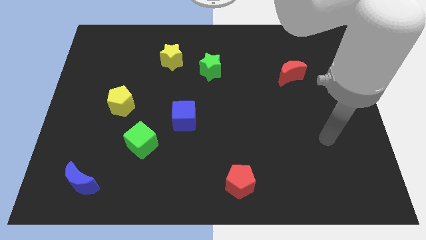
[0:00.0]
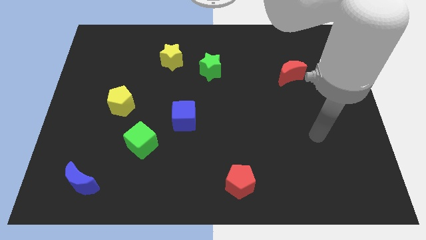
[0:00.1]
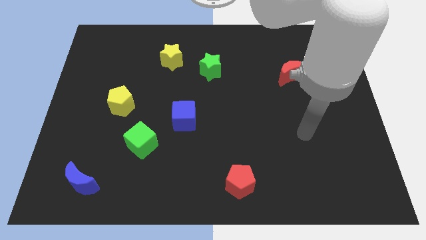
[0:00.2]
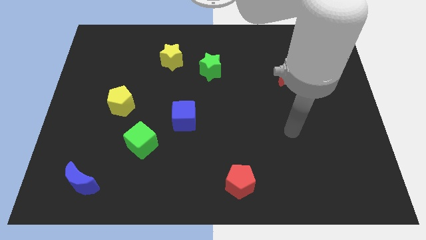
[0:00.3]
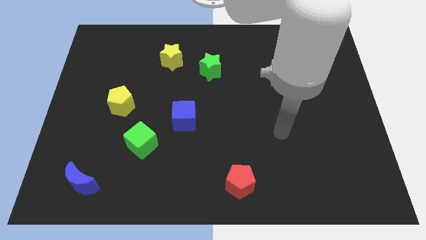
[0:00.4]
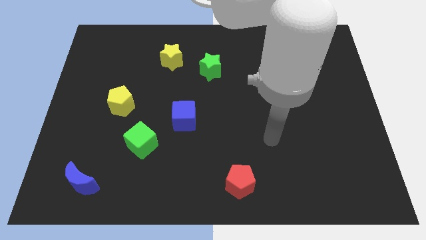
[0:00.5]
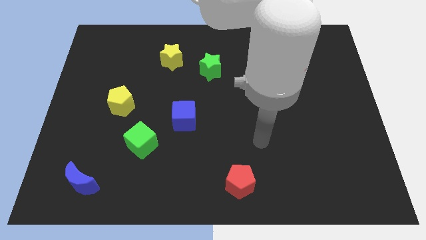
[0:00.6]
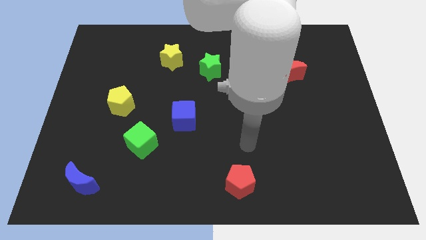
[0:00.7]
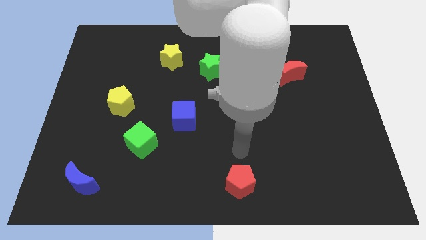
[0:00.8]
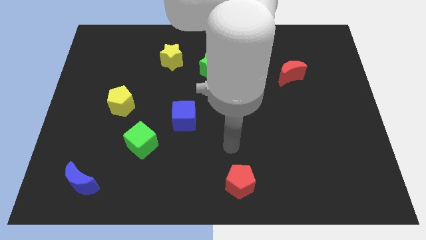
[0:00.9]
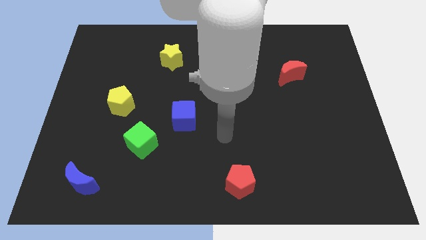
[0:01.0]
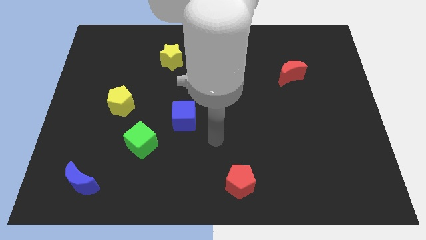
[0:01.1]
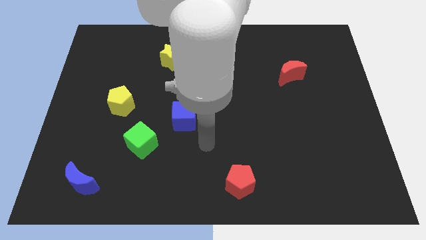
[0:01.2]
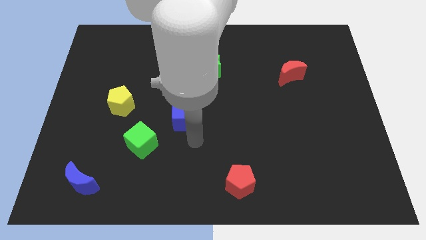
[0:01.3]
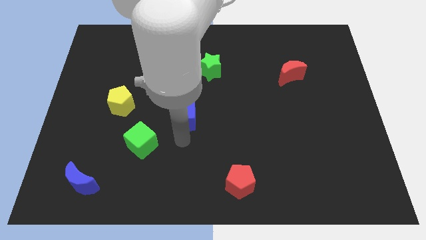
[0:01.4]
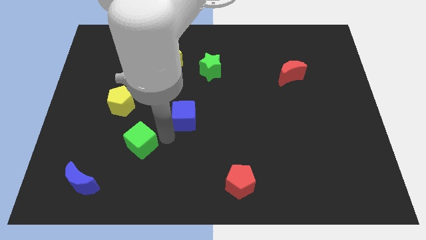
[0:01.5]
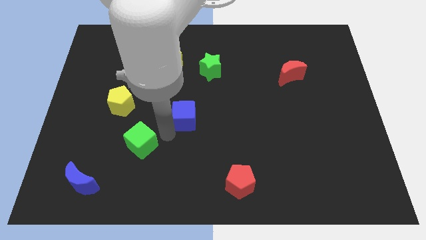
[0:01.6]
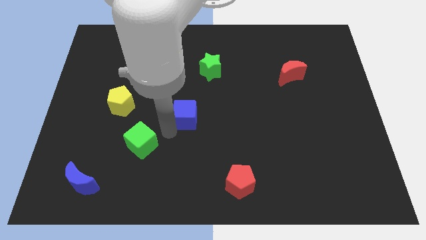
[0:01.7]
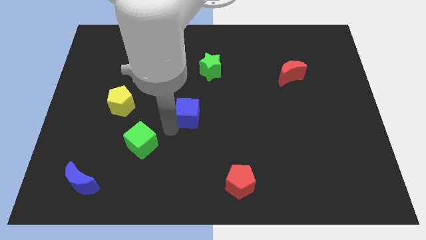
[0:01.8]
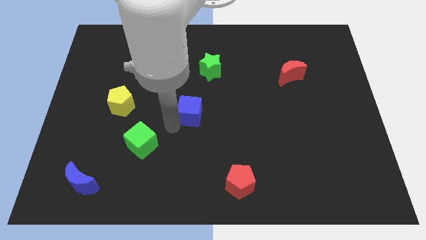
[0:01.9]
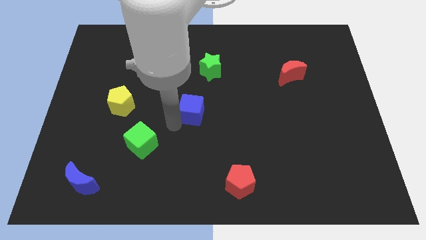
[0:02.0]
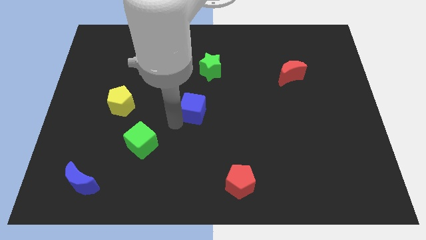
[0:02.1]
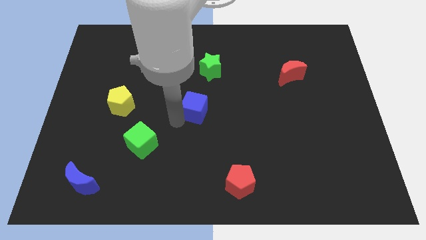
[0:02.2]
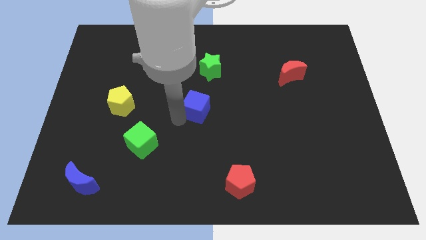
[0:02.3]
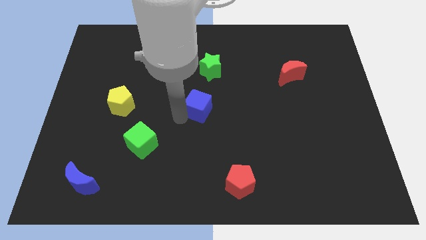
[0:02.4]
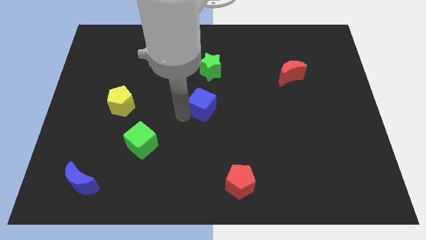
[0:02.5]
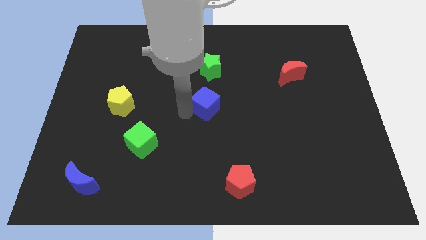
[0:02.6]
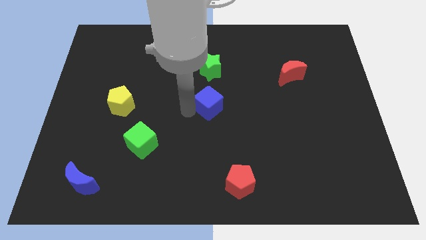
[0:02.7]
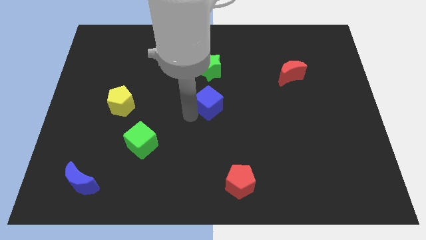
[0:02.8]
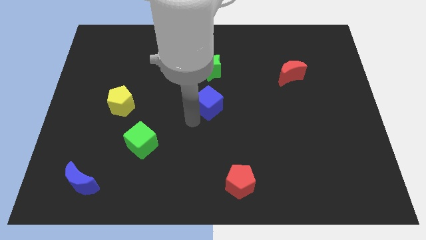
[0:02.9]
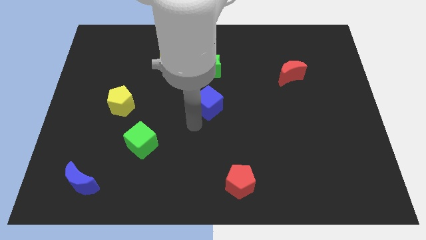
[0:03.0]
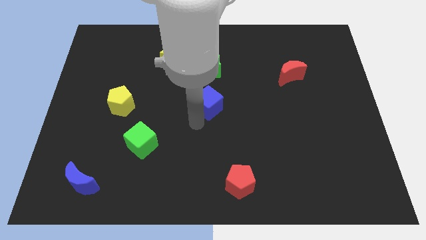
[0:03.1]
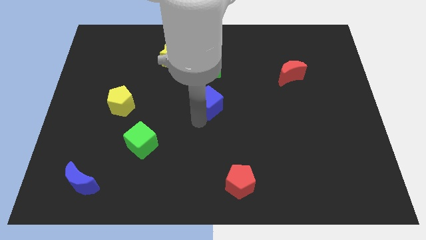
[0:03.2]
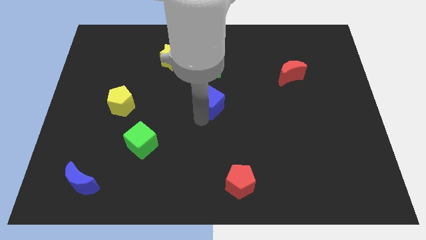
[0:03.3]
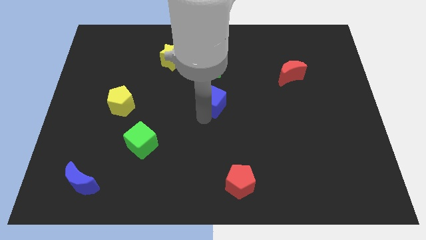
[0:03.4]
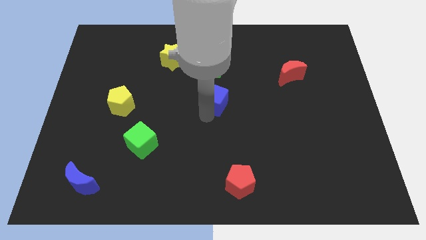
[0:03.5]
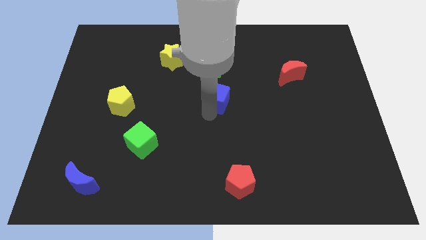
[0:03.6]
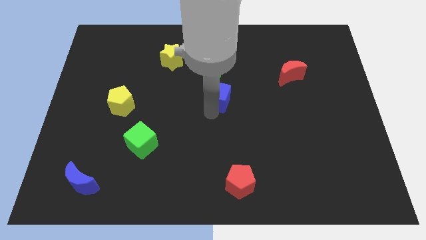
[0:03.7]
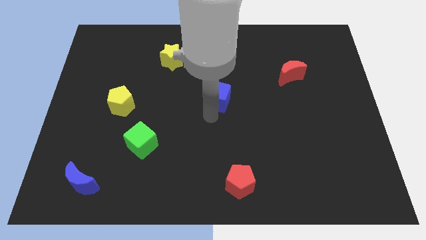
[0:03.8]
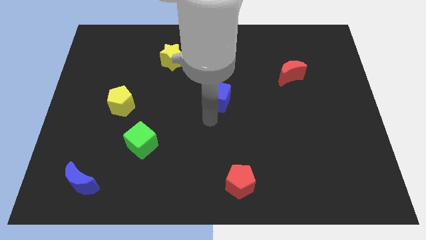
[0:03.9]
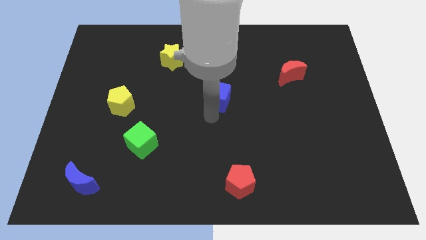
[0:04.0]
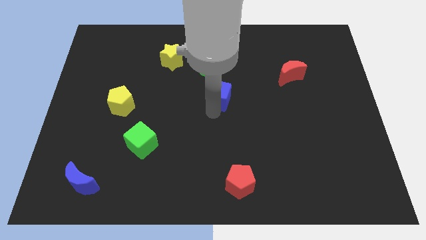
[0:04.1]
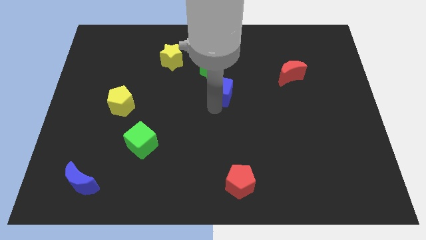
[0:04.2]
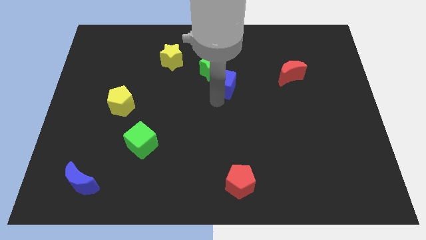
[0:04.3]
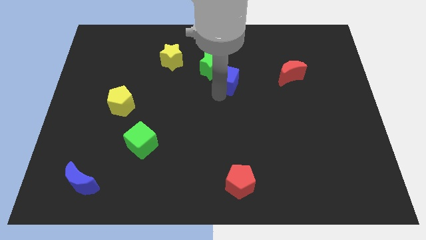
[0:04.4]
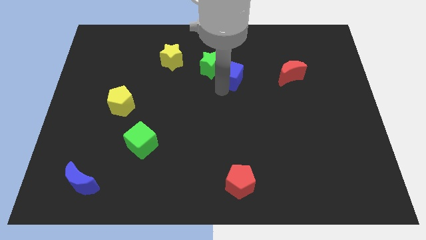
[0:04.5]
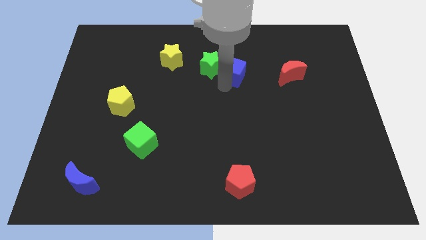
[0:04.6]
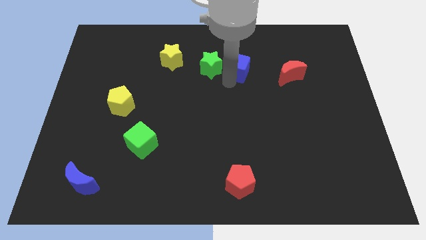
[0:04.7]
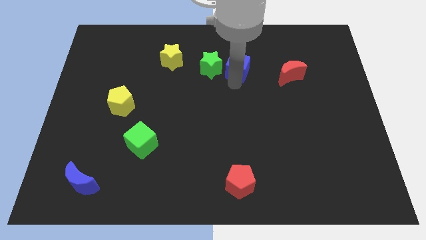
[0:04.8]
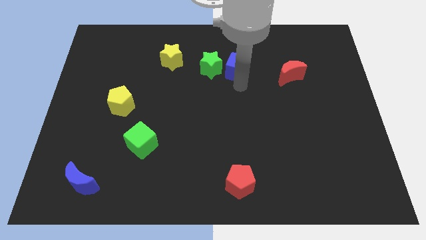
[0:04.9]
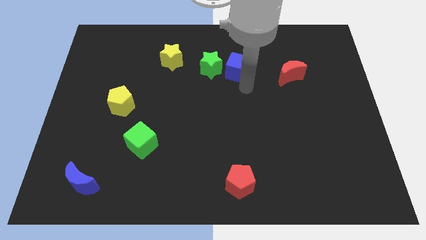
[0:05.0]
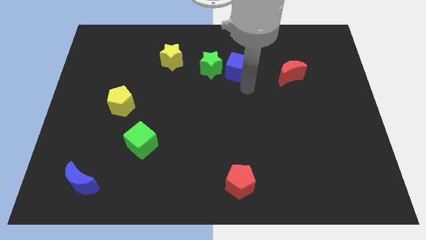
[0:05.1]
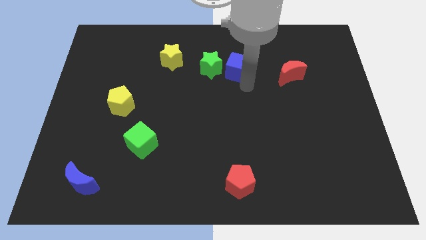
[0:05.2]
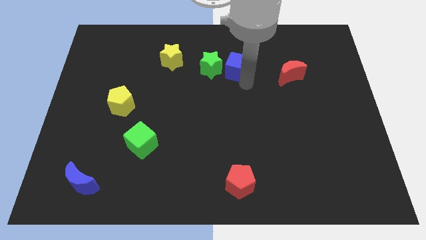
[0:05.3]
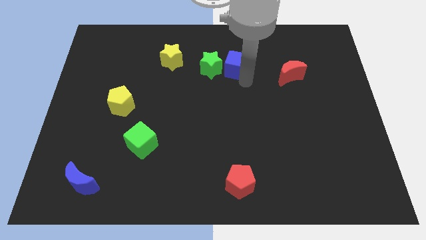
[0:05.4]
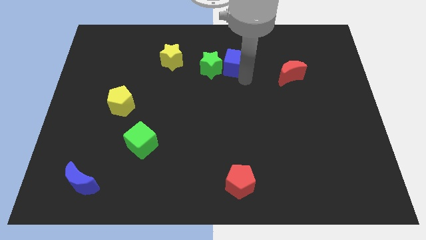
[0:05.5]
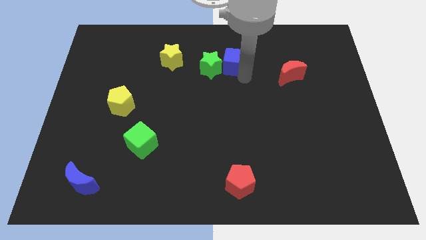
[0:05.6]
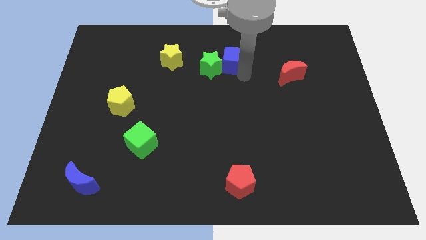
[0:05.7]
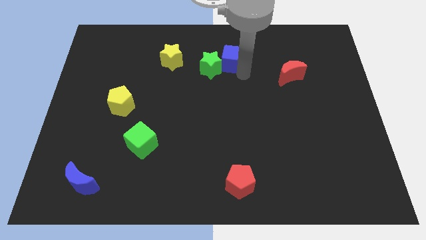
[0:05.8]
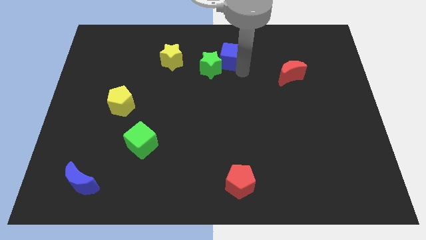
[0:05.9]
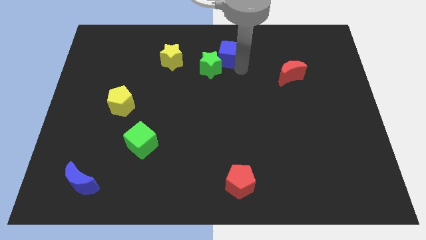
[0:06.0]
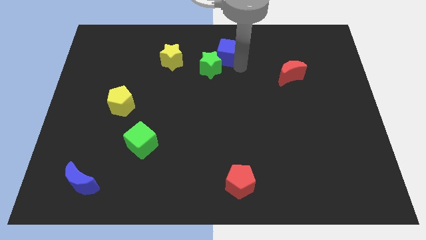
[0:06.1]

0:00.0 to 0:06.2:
put the blue cube to the towards your base
